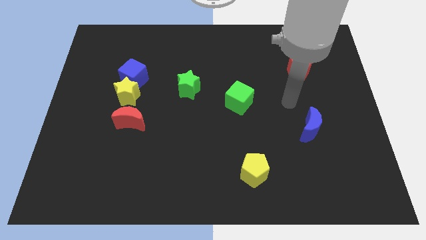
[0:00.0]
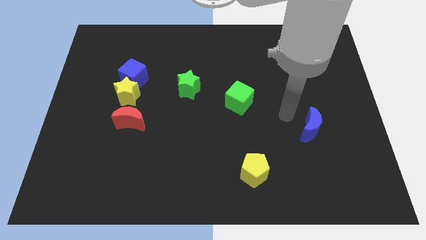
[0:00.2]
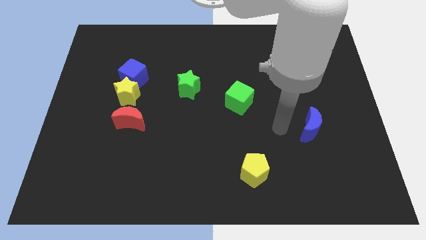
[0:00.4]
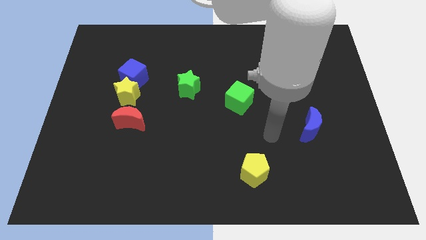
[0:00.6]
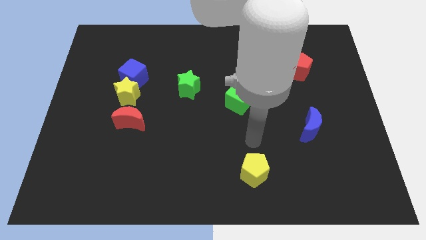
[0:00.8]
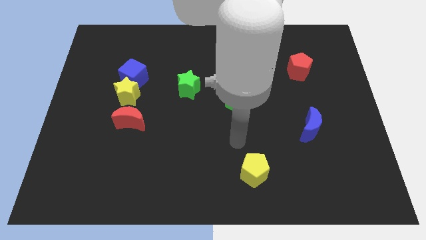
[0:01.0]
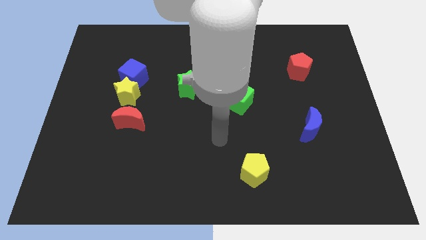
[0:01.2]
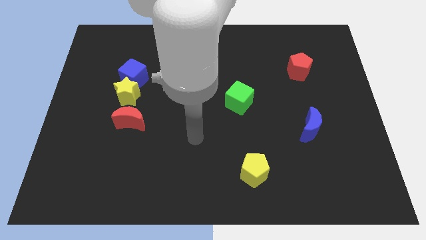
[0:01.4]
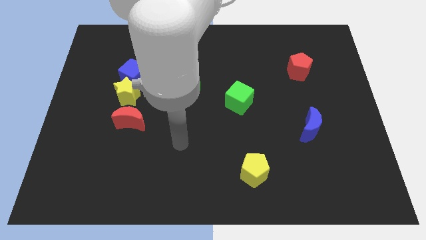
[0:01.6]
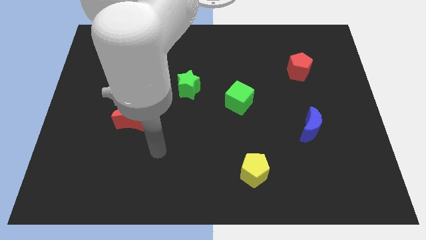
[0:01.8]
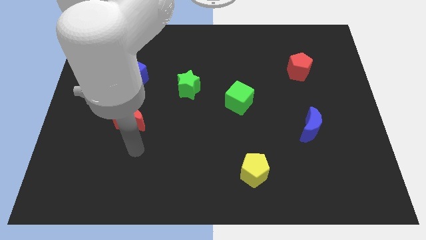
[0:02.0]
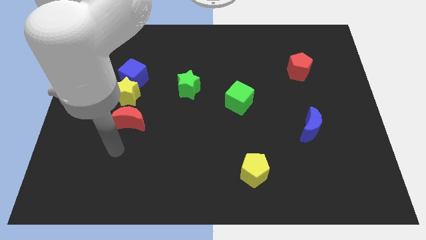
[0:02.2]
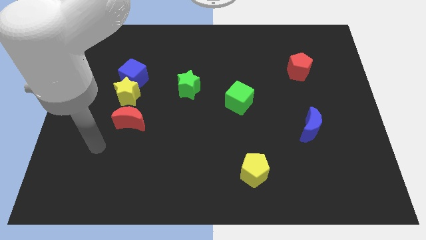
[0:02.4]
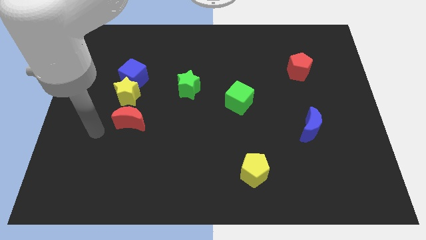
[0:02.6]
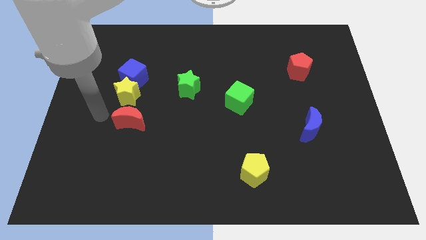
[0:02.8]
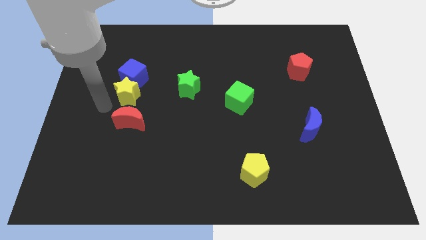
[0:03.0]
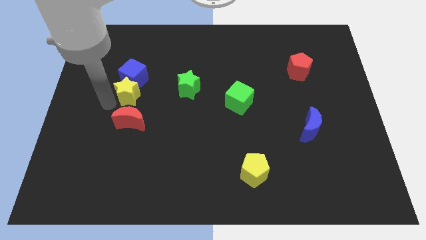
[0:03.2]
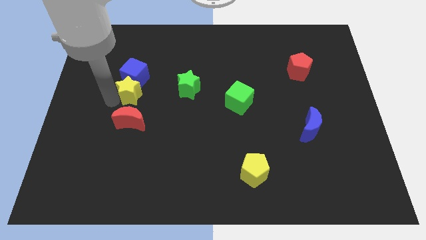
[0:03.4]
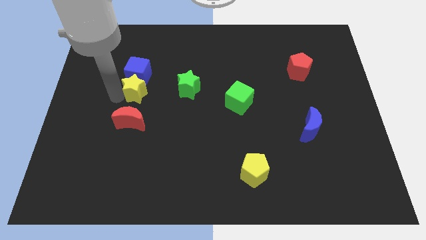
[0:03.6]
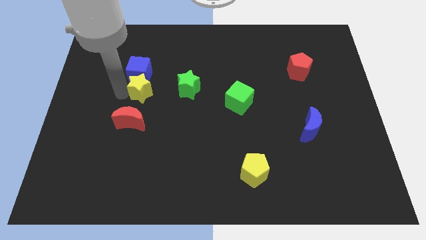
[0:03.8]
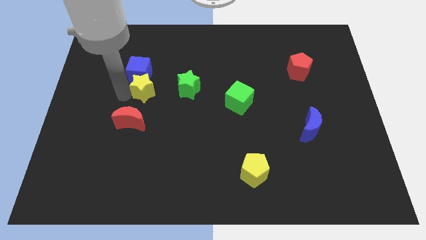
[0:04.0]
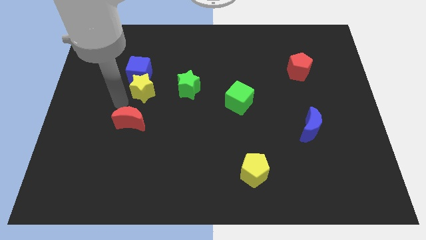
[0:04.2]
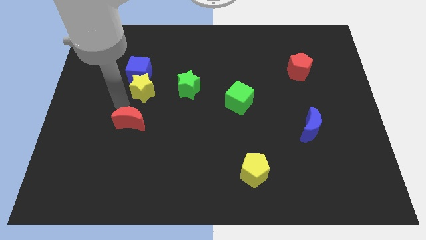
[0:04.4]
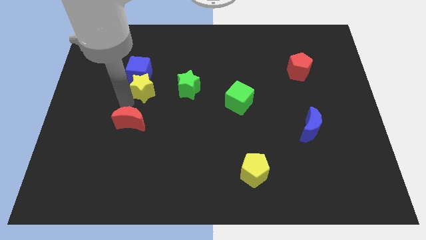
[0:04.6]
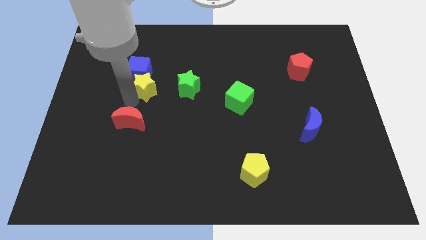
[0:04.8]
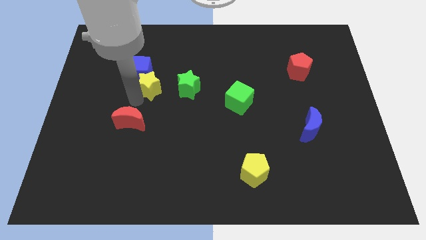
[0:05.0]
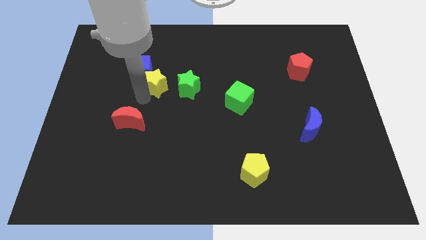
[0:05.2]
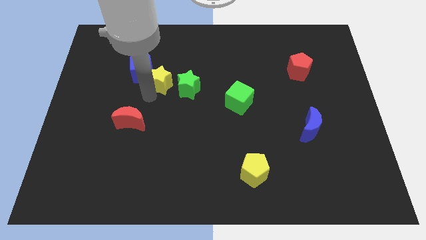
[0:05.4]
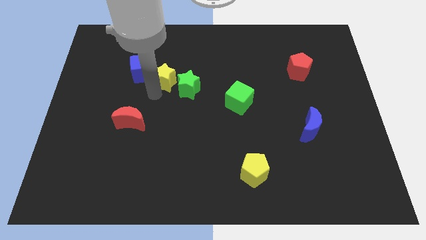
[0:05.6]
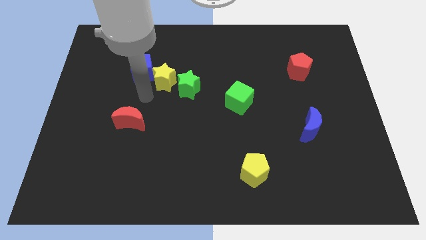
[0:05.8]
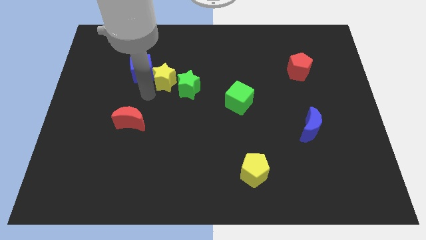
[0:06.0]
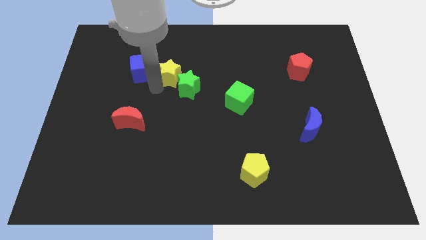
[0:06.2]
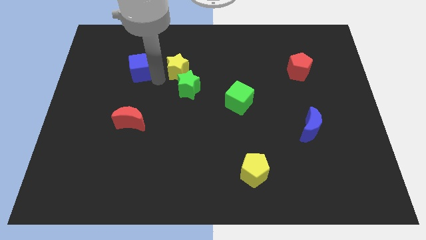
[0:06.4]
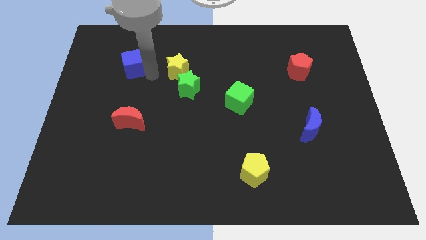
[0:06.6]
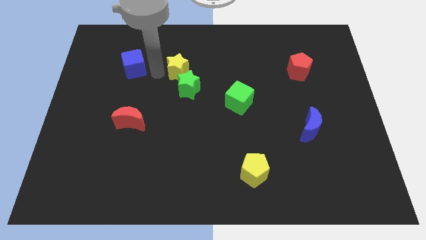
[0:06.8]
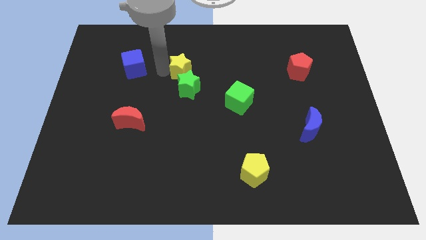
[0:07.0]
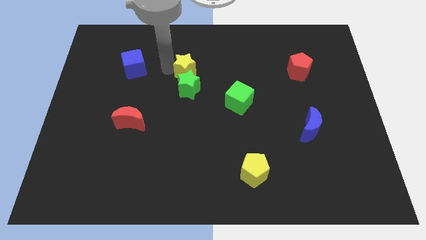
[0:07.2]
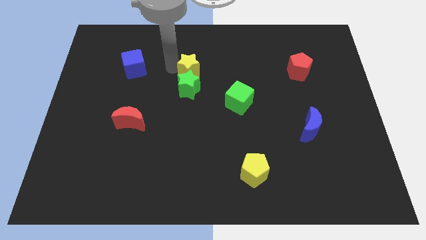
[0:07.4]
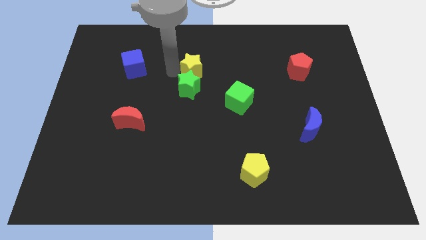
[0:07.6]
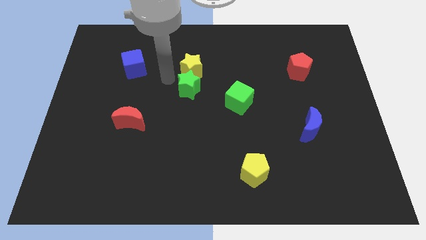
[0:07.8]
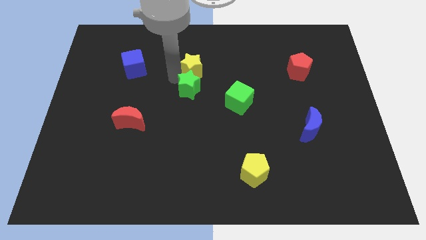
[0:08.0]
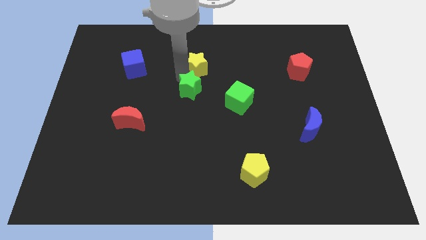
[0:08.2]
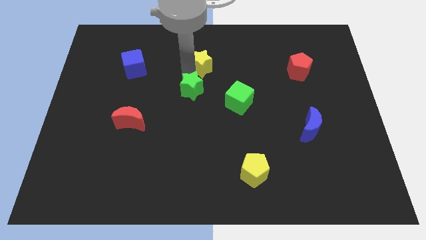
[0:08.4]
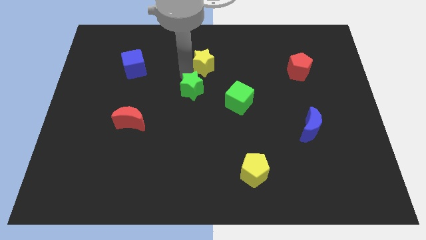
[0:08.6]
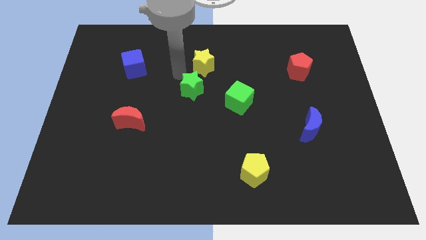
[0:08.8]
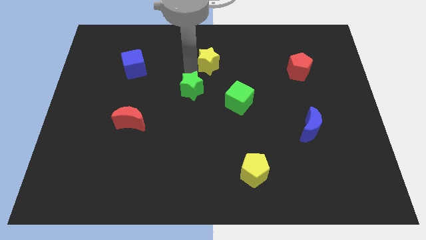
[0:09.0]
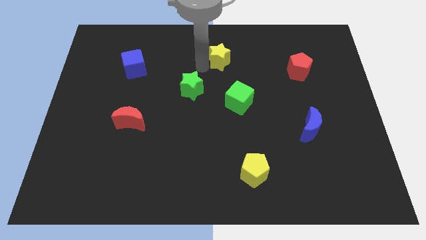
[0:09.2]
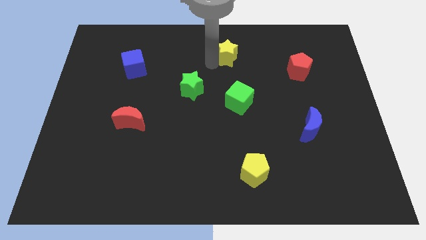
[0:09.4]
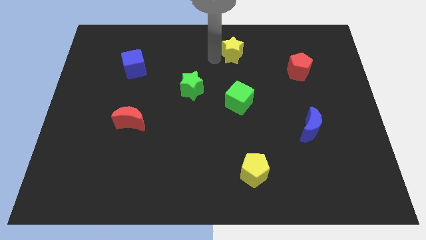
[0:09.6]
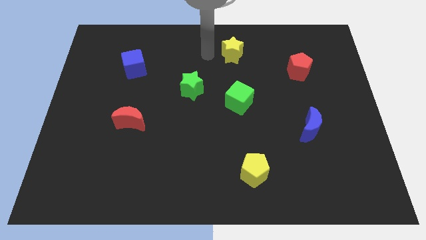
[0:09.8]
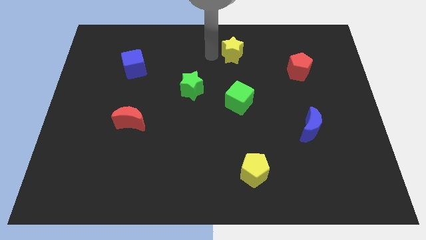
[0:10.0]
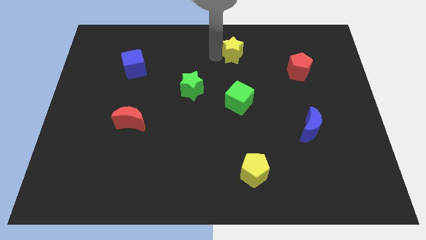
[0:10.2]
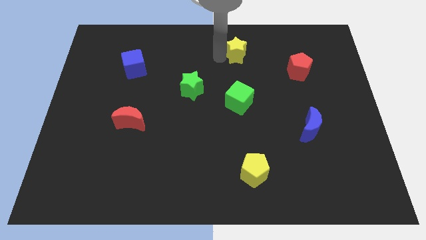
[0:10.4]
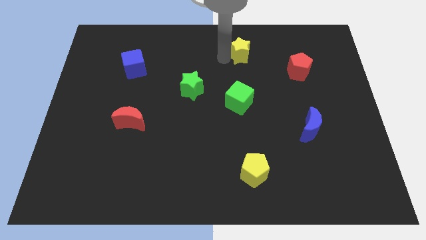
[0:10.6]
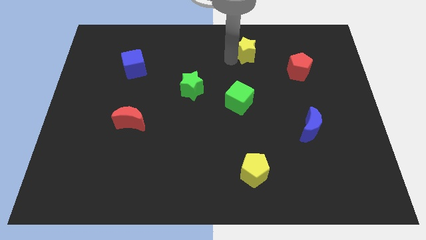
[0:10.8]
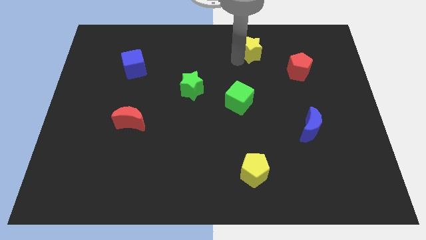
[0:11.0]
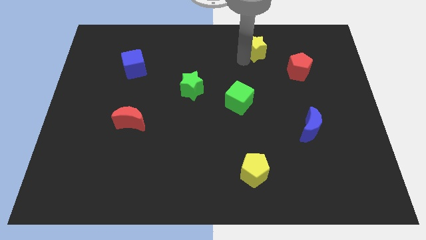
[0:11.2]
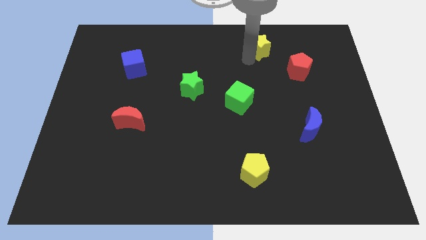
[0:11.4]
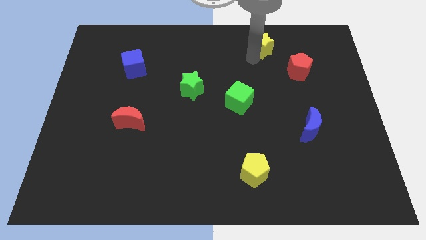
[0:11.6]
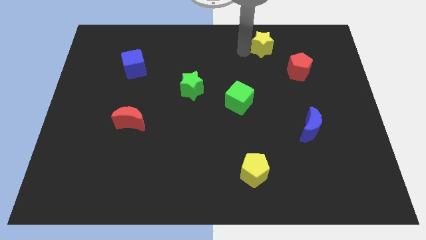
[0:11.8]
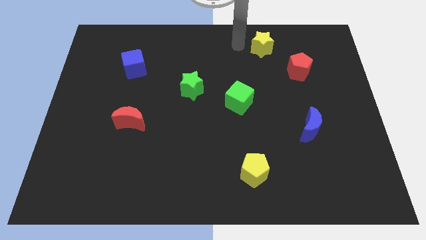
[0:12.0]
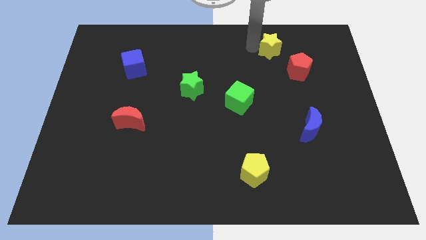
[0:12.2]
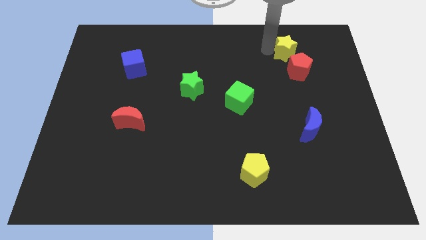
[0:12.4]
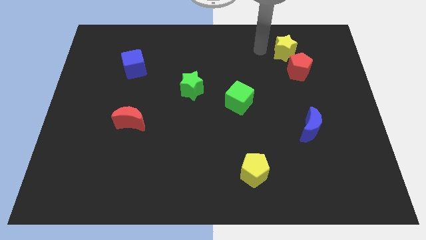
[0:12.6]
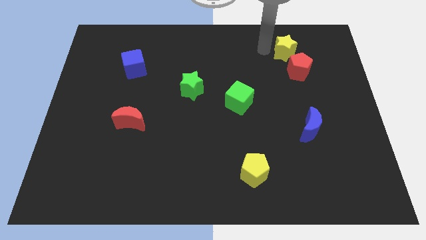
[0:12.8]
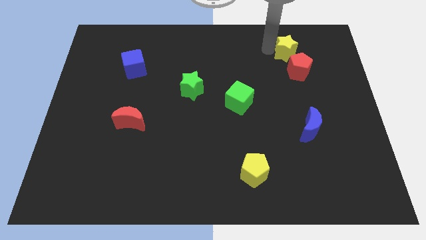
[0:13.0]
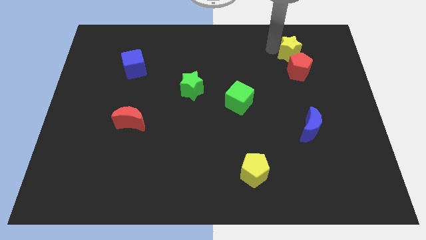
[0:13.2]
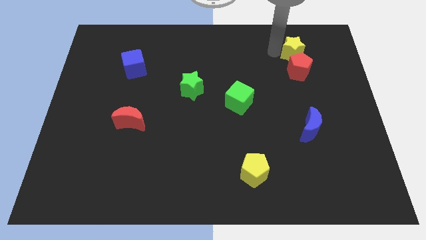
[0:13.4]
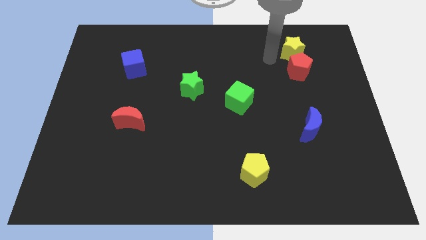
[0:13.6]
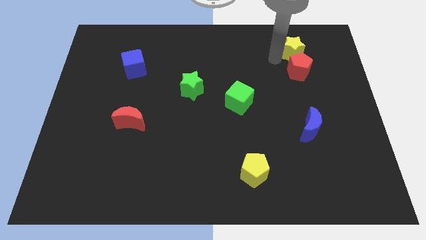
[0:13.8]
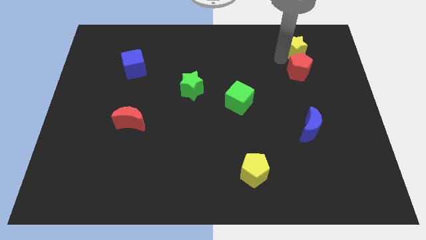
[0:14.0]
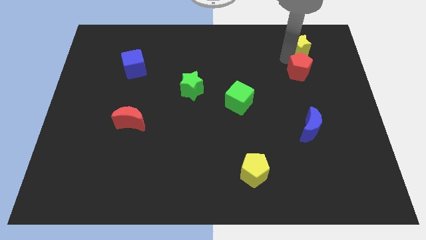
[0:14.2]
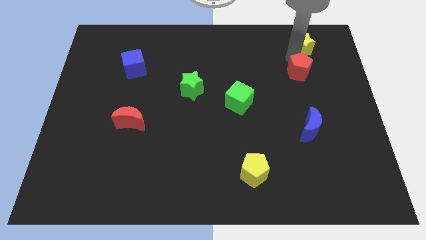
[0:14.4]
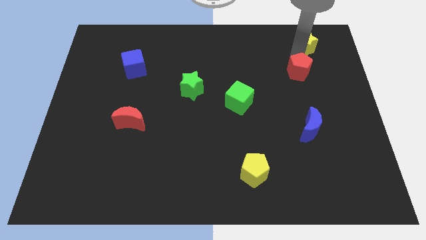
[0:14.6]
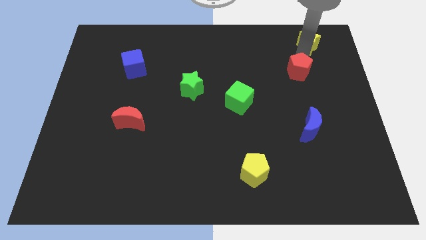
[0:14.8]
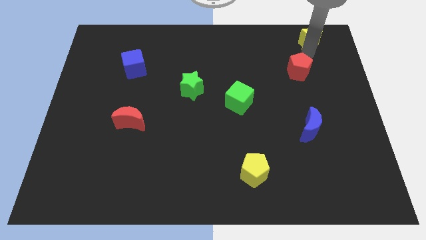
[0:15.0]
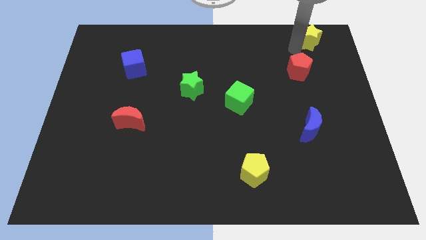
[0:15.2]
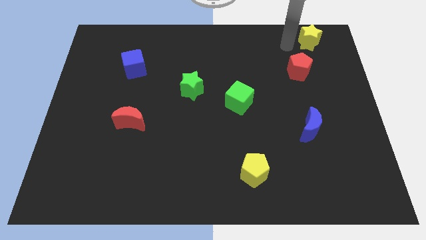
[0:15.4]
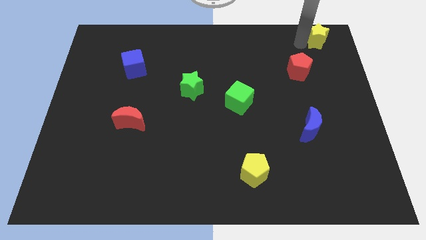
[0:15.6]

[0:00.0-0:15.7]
put the yellow star to the top right
